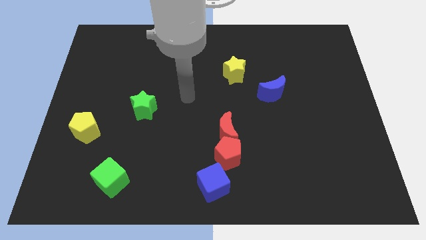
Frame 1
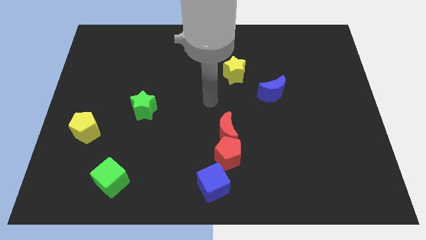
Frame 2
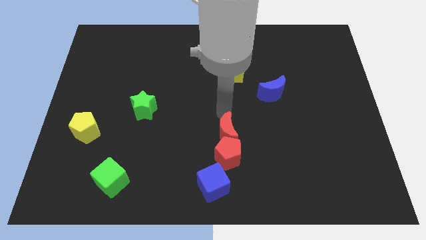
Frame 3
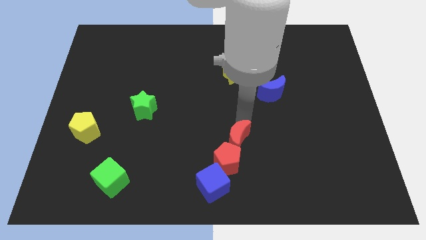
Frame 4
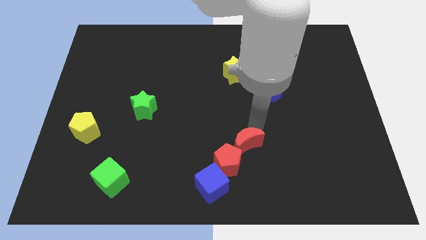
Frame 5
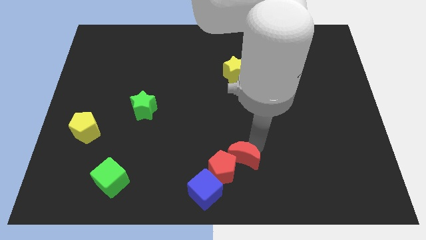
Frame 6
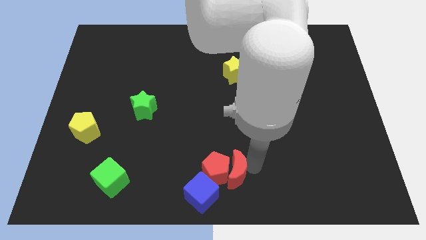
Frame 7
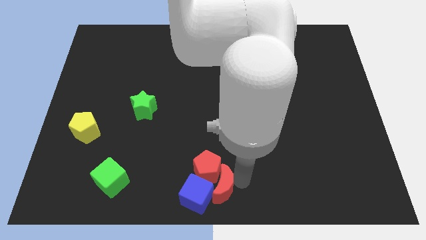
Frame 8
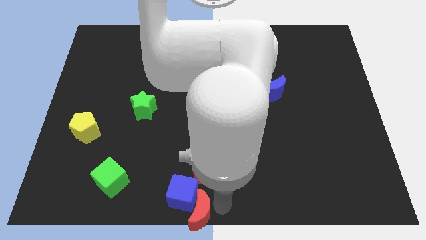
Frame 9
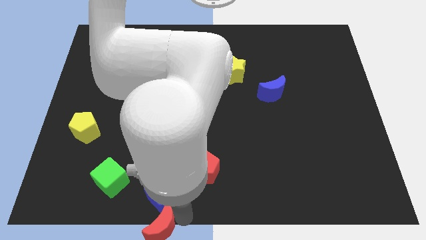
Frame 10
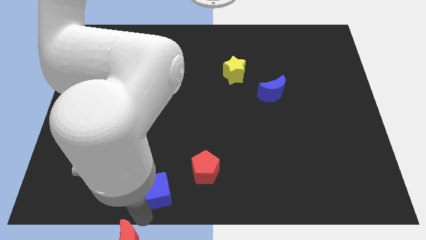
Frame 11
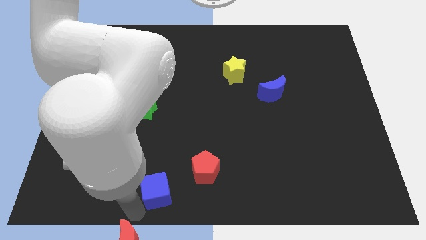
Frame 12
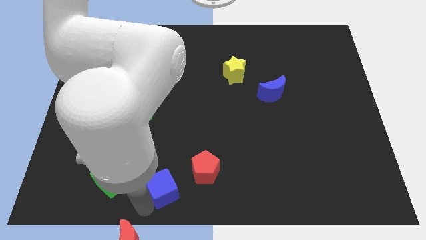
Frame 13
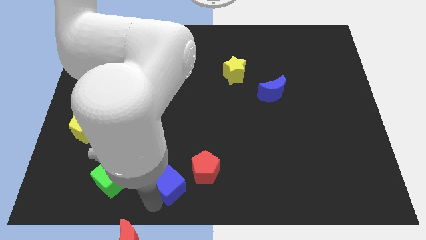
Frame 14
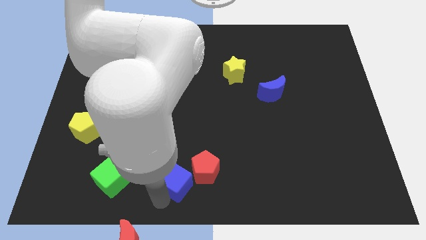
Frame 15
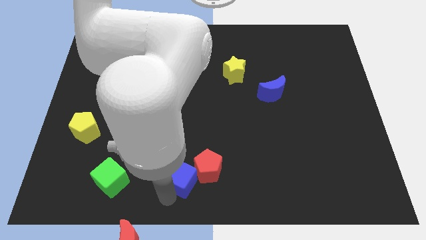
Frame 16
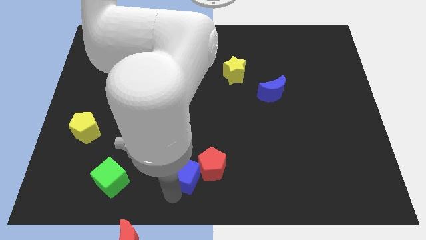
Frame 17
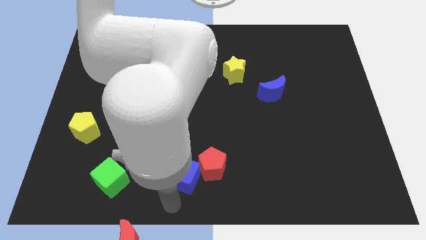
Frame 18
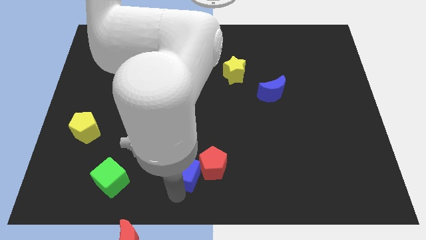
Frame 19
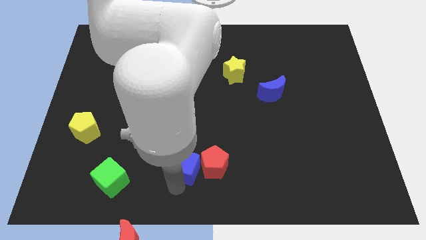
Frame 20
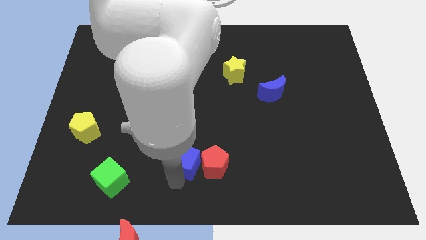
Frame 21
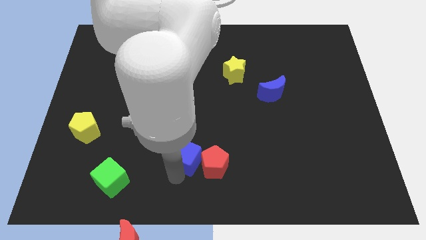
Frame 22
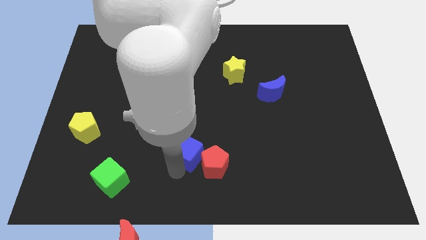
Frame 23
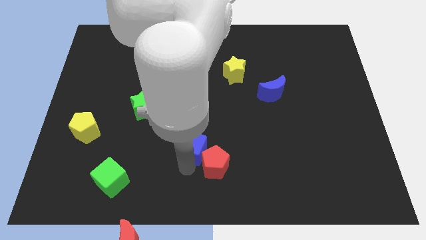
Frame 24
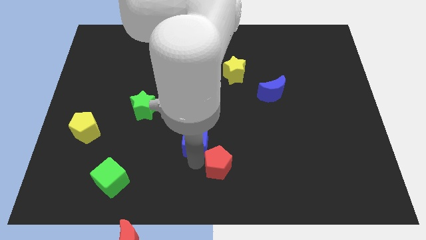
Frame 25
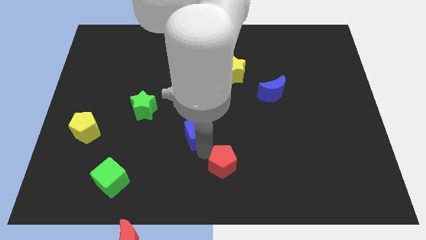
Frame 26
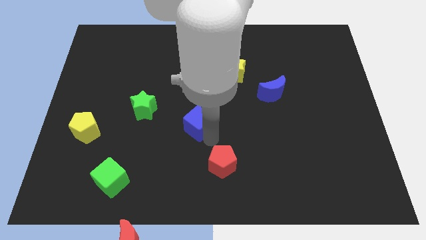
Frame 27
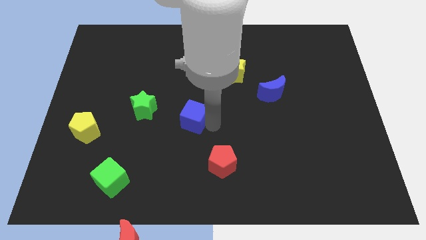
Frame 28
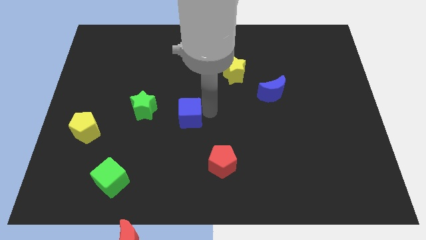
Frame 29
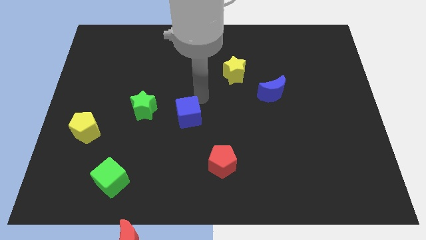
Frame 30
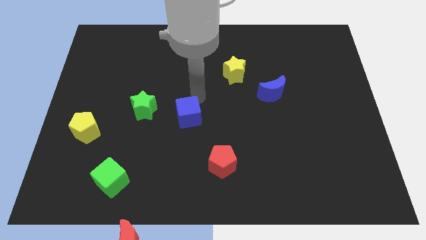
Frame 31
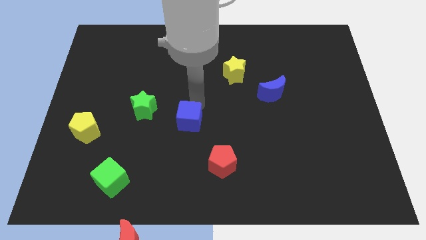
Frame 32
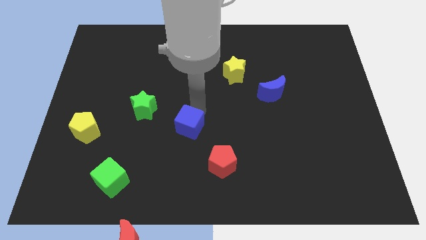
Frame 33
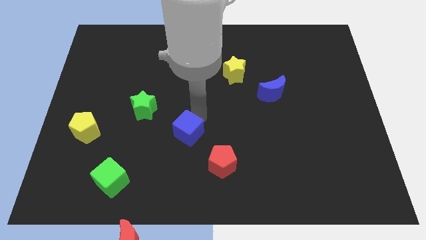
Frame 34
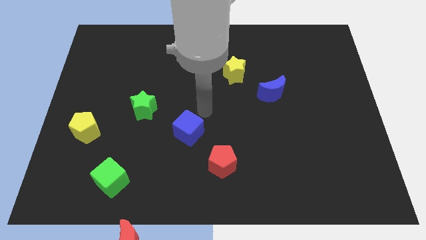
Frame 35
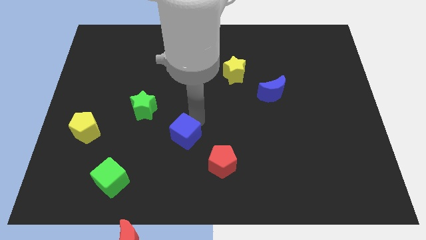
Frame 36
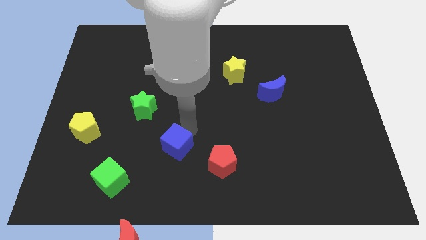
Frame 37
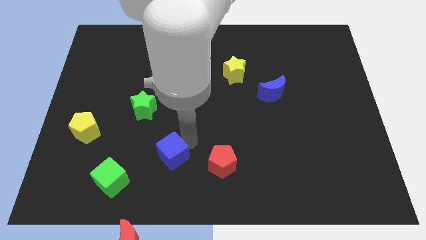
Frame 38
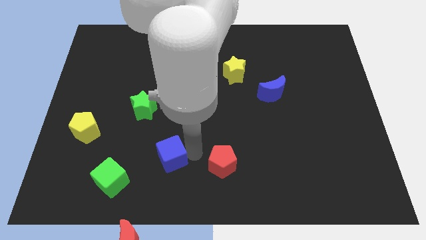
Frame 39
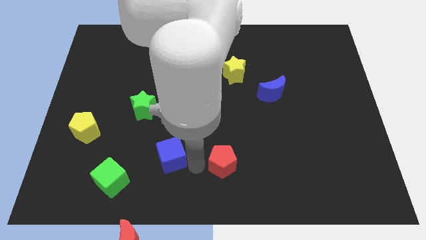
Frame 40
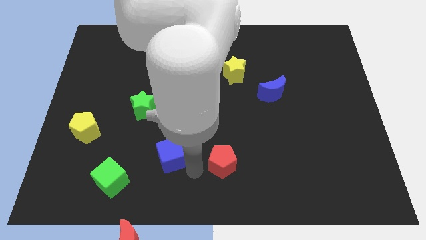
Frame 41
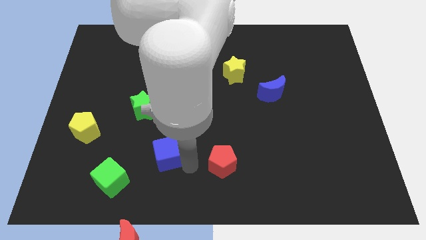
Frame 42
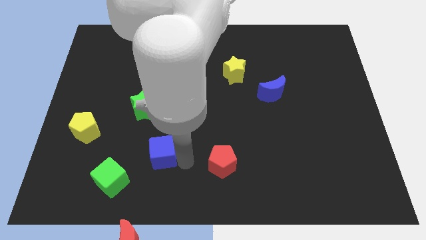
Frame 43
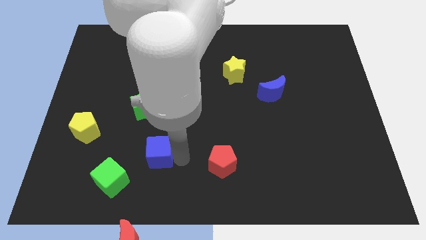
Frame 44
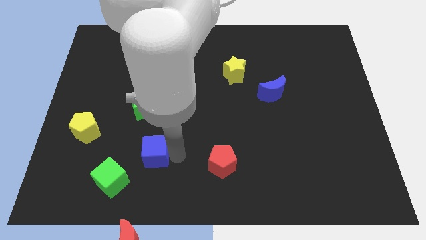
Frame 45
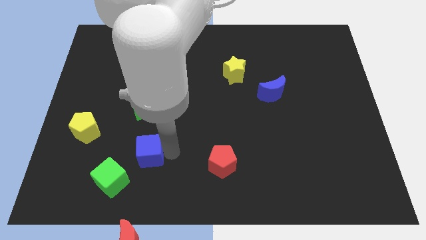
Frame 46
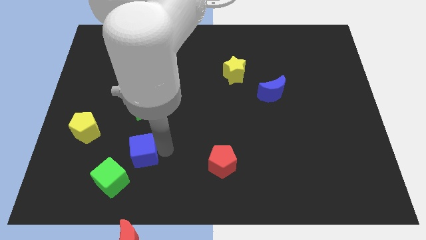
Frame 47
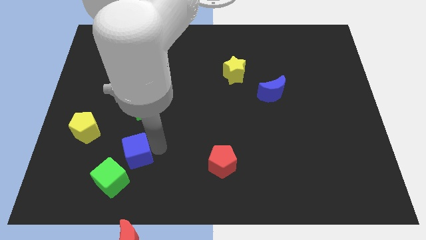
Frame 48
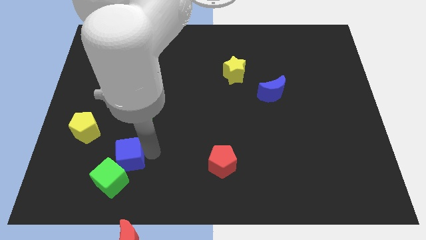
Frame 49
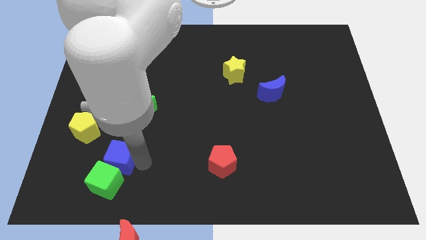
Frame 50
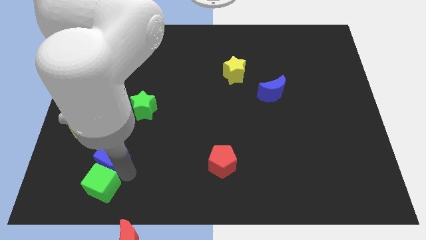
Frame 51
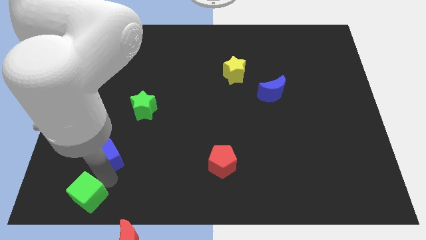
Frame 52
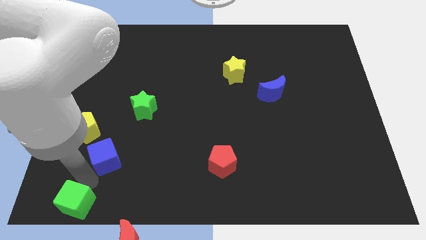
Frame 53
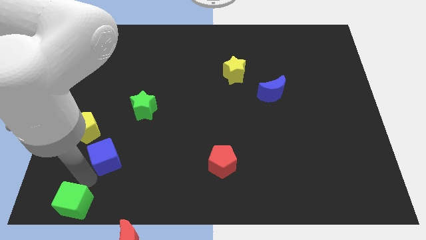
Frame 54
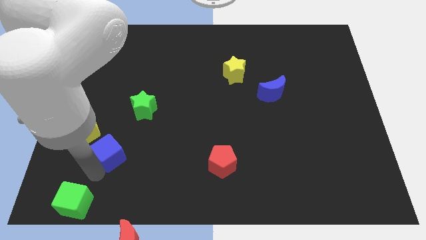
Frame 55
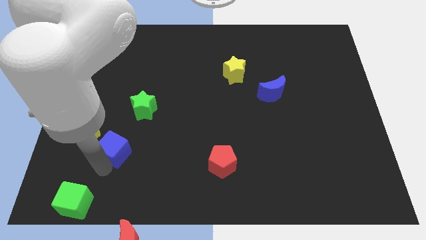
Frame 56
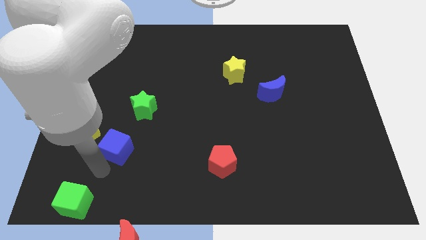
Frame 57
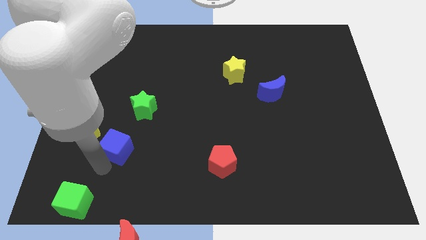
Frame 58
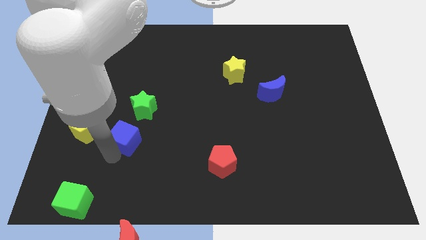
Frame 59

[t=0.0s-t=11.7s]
push the blue cube upwards and then to the left

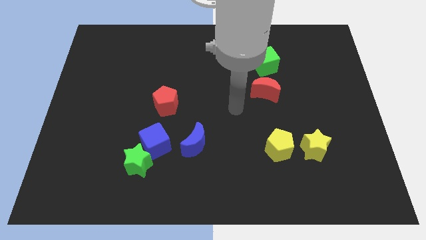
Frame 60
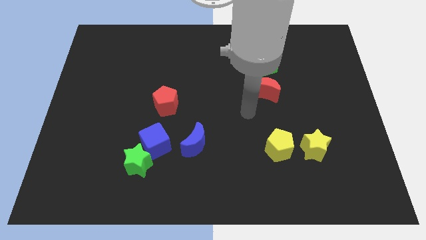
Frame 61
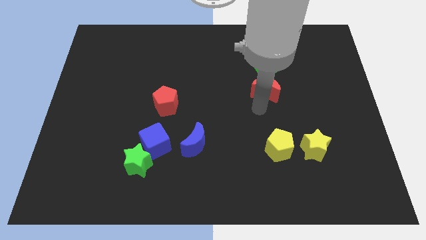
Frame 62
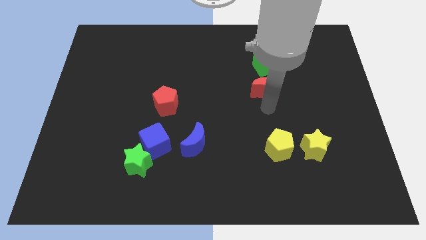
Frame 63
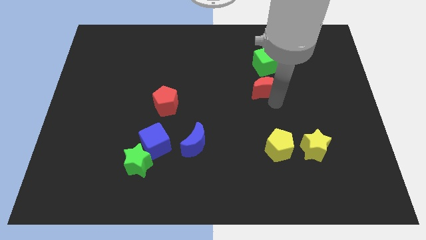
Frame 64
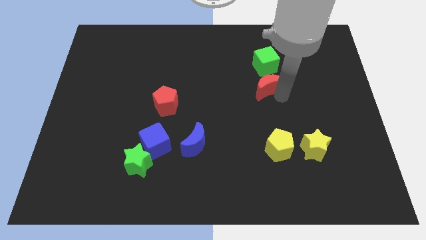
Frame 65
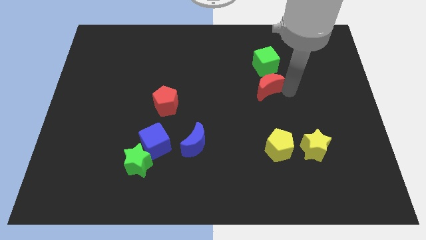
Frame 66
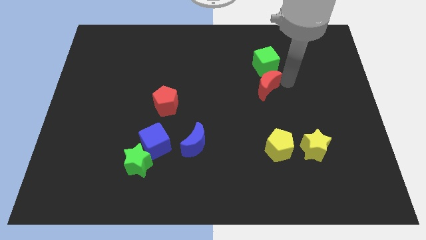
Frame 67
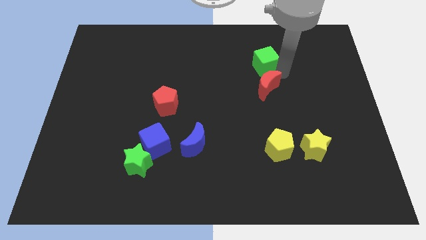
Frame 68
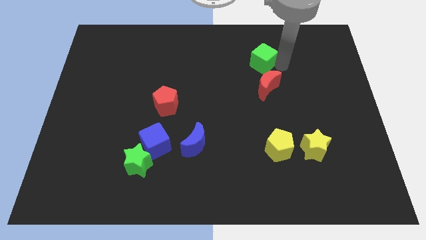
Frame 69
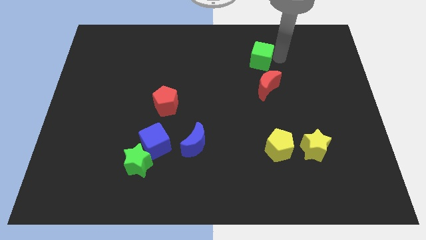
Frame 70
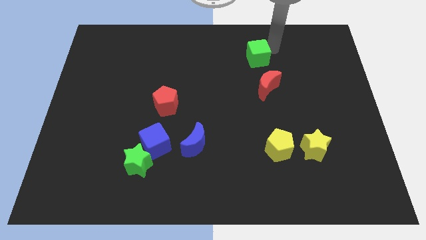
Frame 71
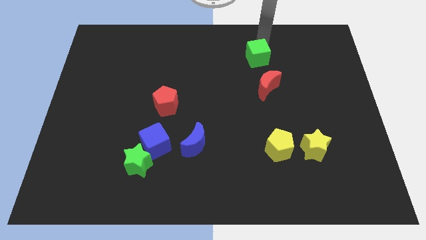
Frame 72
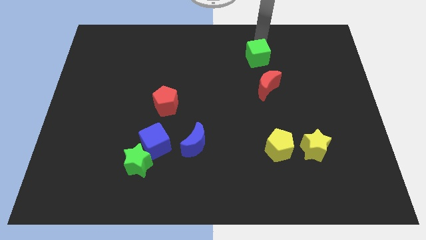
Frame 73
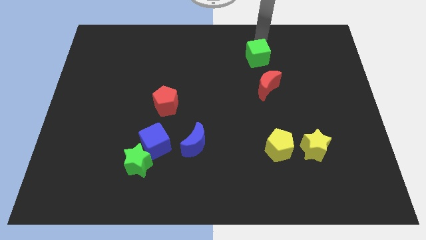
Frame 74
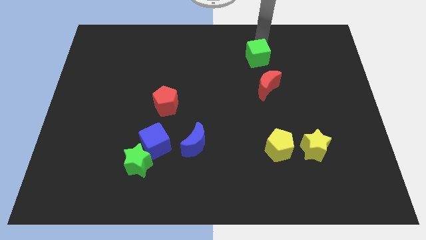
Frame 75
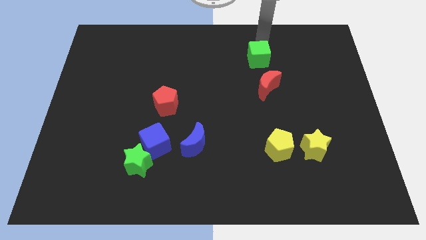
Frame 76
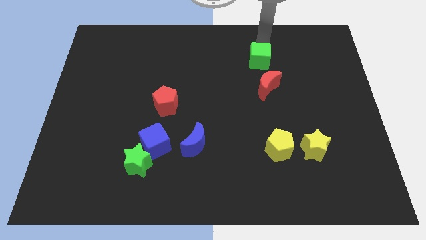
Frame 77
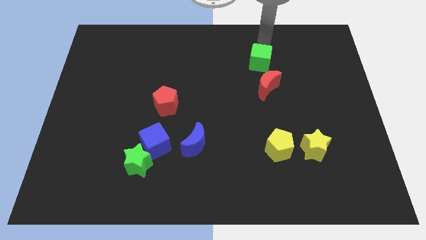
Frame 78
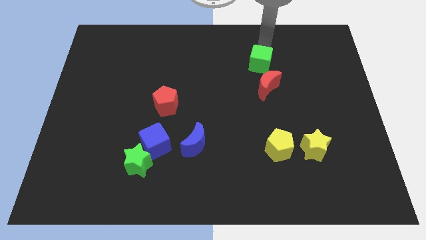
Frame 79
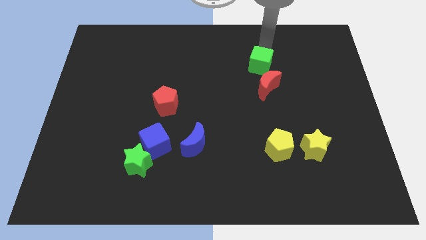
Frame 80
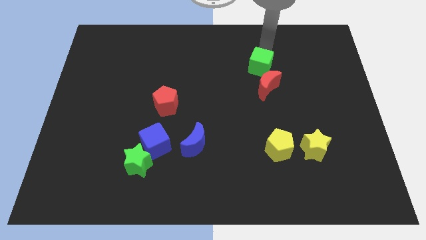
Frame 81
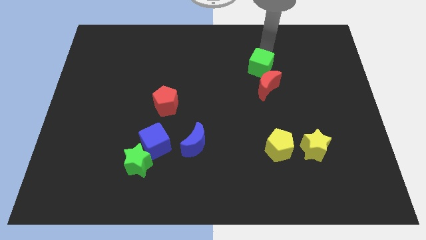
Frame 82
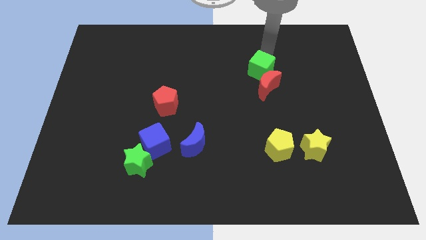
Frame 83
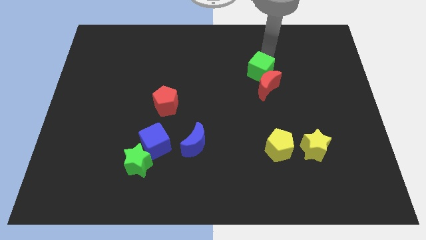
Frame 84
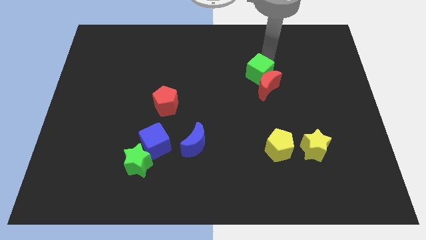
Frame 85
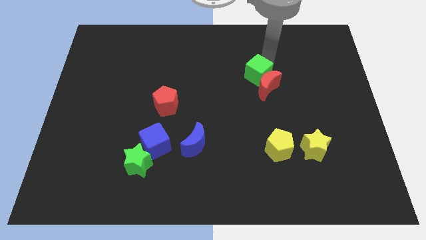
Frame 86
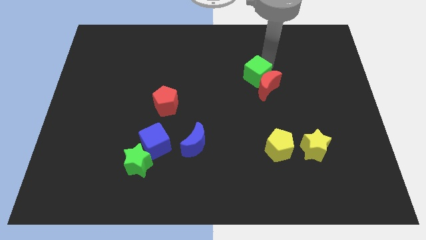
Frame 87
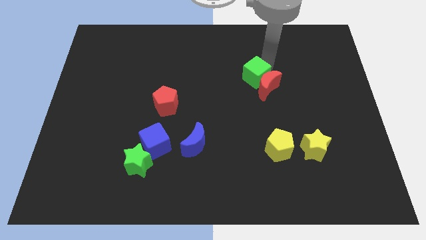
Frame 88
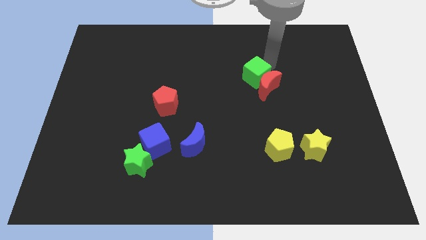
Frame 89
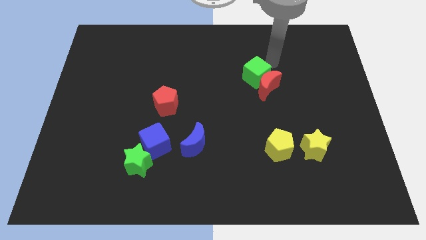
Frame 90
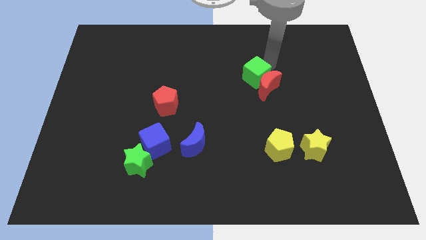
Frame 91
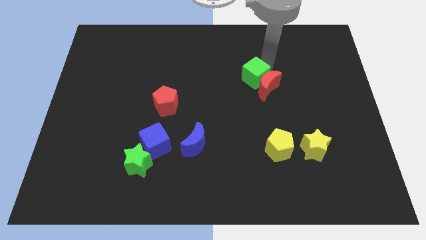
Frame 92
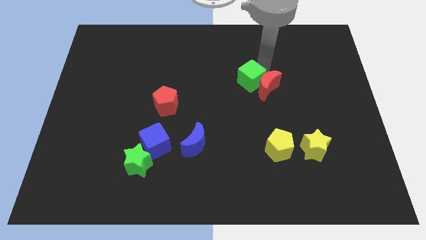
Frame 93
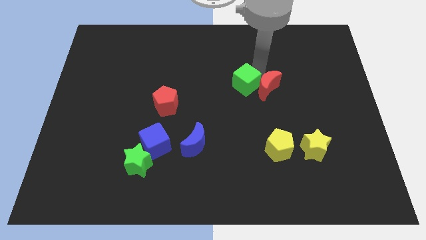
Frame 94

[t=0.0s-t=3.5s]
slightly push the green cube down and then left
